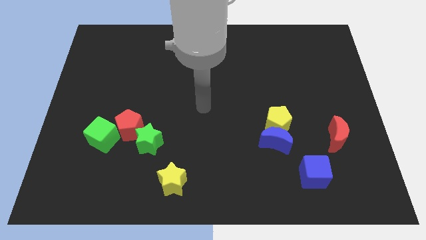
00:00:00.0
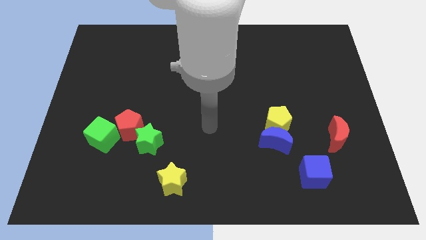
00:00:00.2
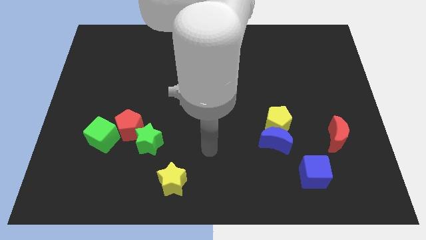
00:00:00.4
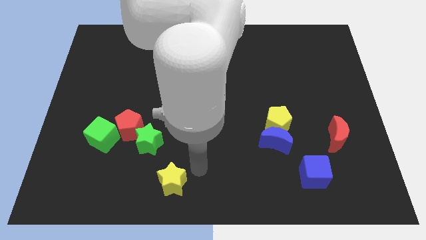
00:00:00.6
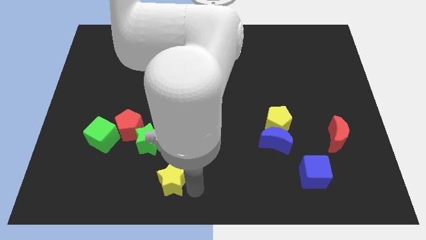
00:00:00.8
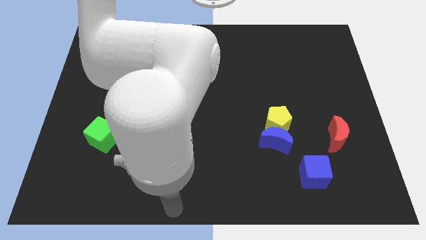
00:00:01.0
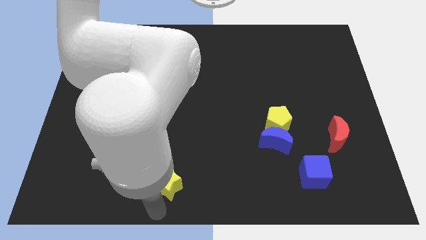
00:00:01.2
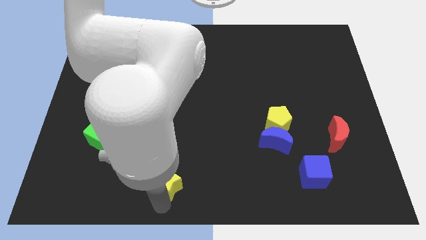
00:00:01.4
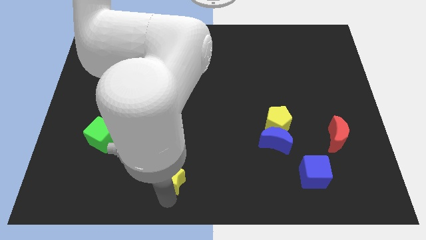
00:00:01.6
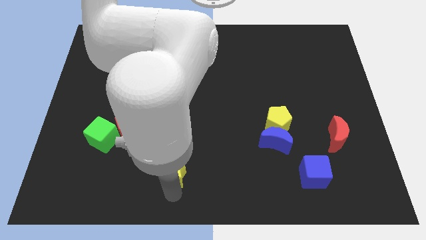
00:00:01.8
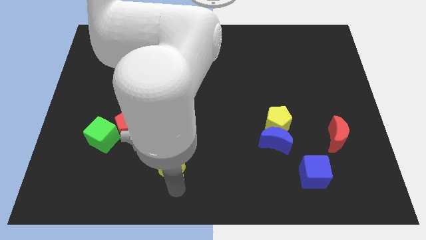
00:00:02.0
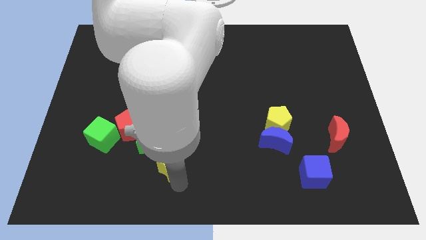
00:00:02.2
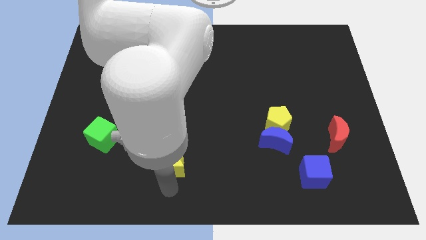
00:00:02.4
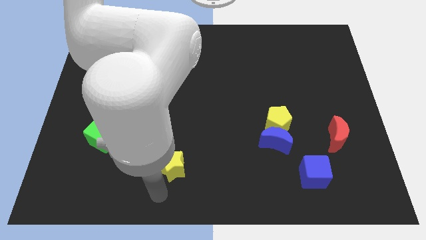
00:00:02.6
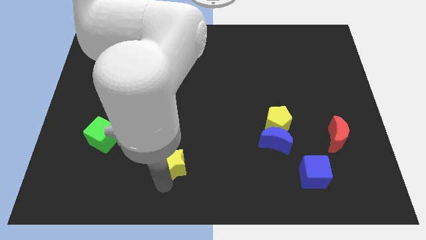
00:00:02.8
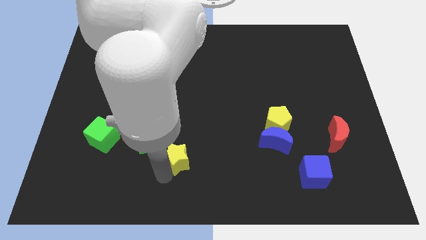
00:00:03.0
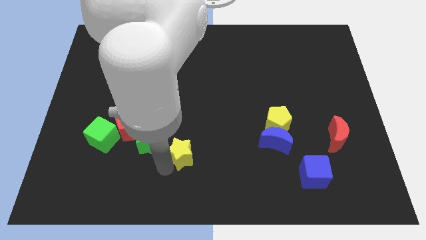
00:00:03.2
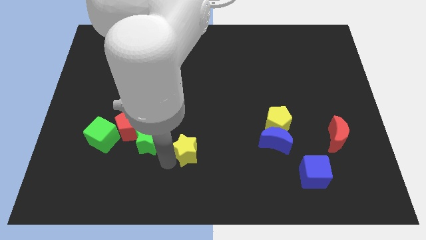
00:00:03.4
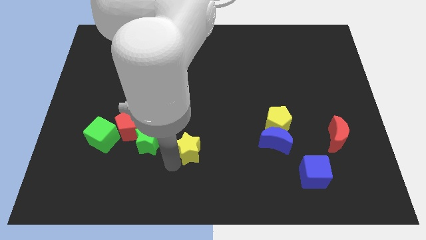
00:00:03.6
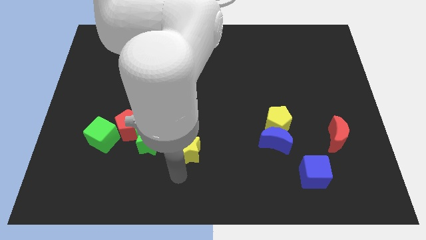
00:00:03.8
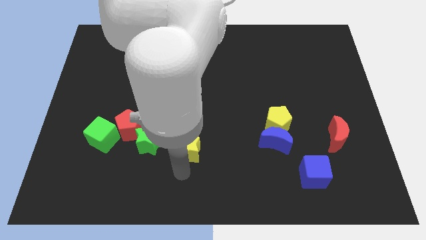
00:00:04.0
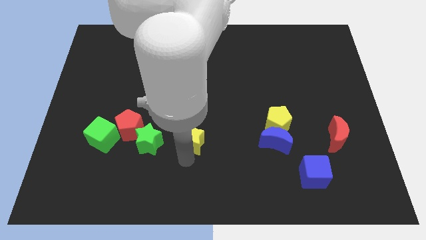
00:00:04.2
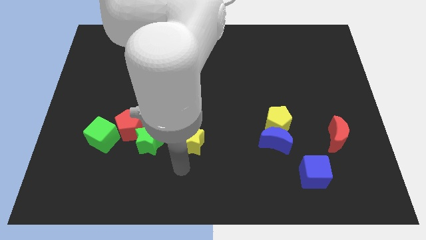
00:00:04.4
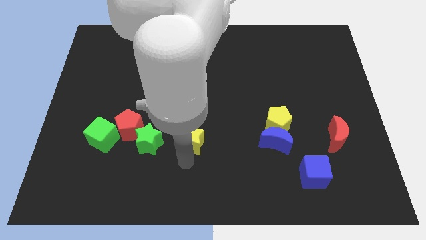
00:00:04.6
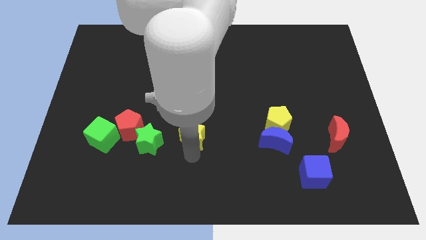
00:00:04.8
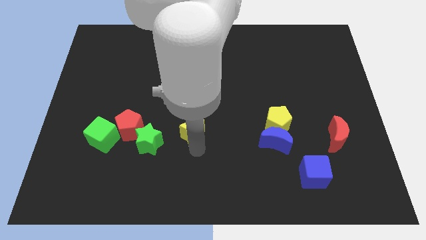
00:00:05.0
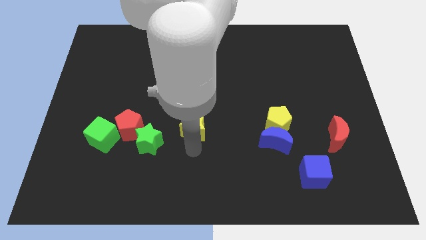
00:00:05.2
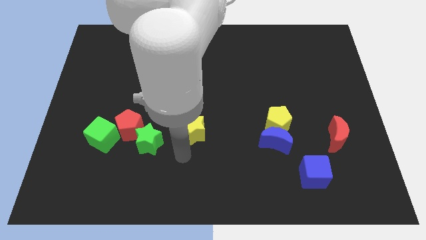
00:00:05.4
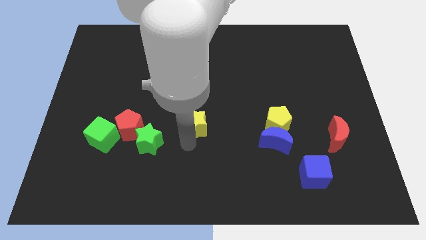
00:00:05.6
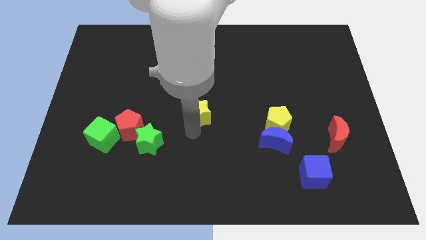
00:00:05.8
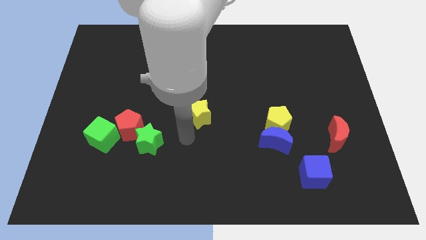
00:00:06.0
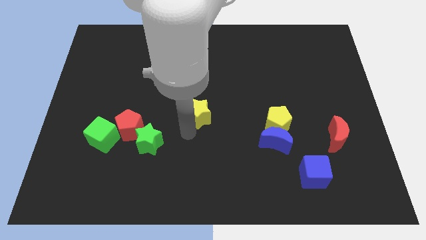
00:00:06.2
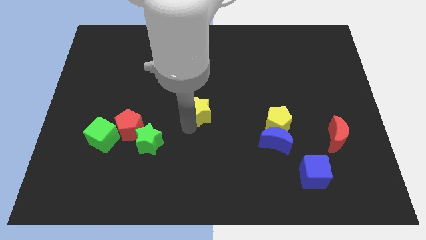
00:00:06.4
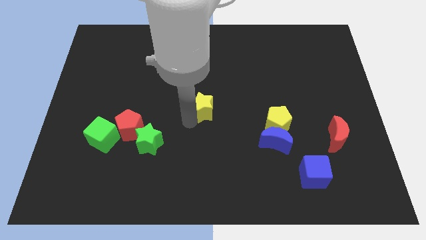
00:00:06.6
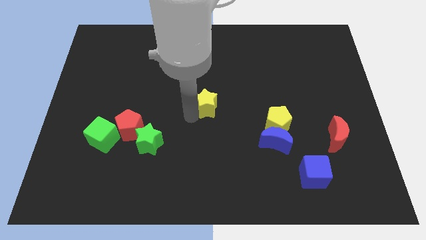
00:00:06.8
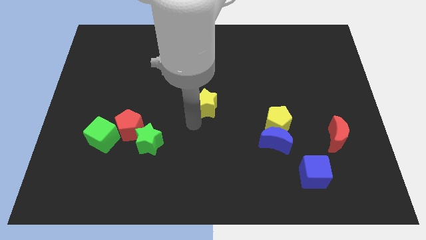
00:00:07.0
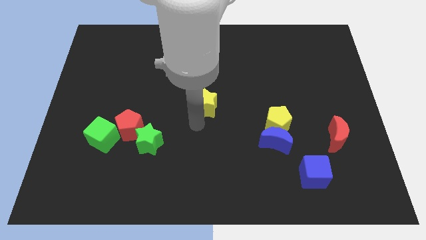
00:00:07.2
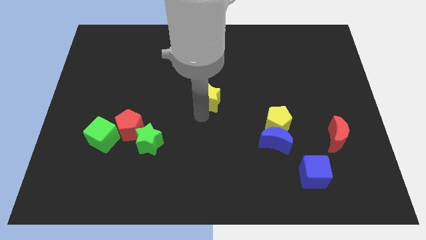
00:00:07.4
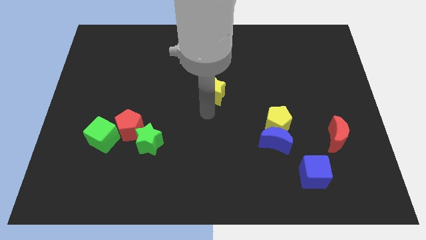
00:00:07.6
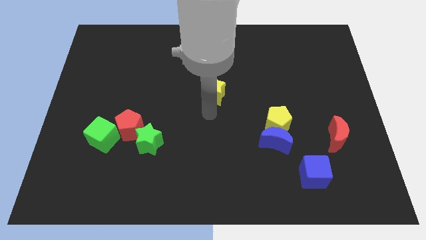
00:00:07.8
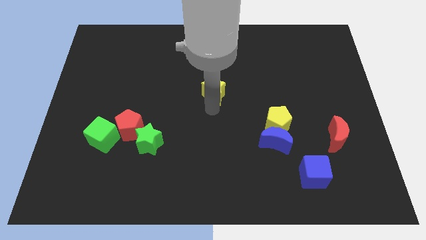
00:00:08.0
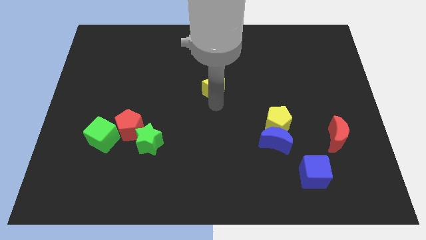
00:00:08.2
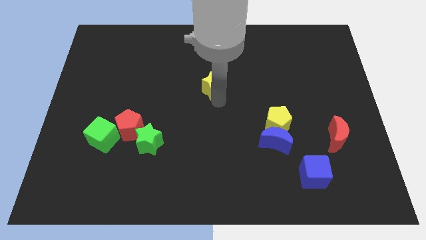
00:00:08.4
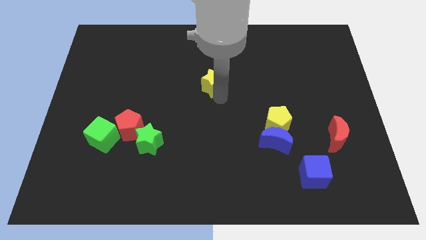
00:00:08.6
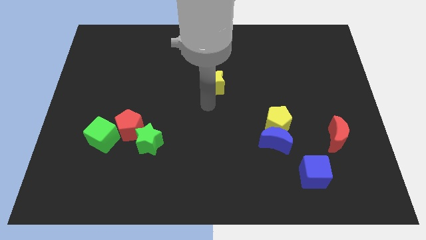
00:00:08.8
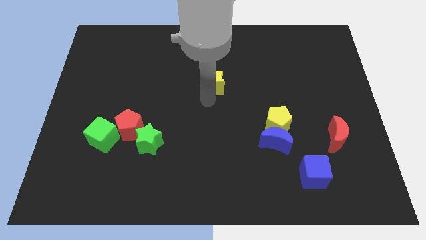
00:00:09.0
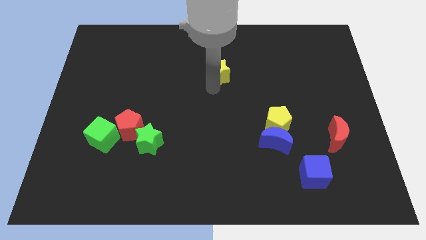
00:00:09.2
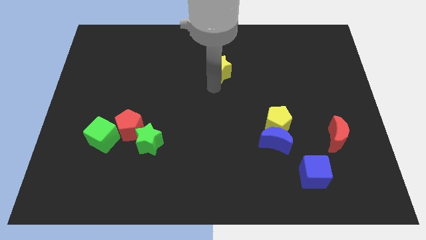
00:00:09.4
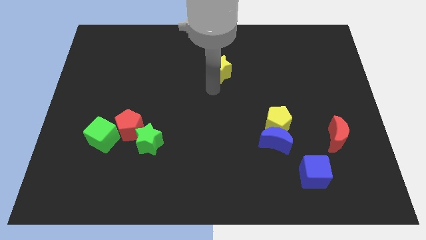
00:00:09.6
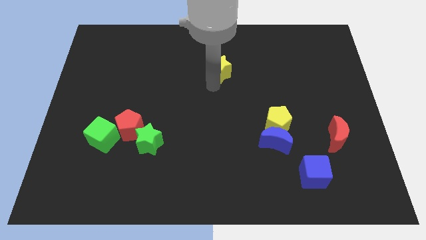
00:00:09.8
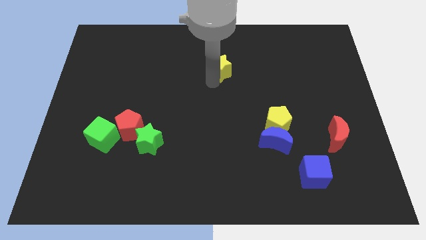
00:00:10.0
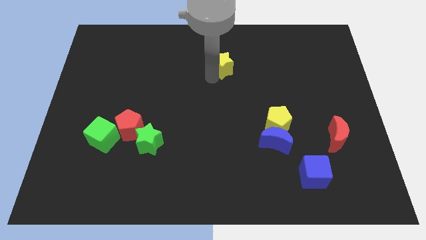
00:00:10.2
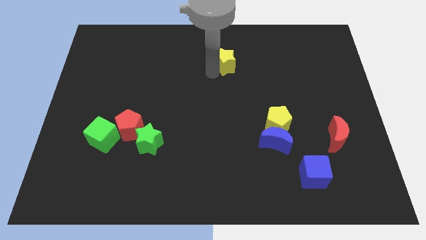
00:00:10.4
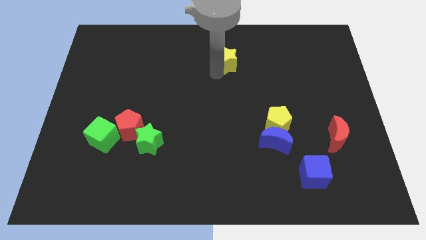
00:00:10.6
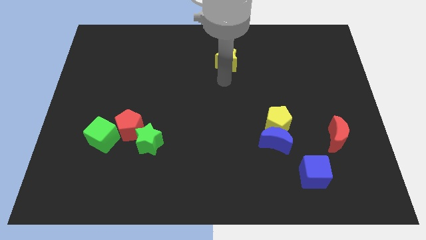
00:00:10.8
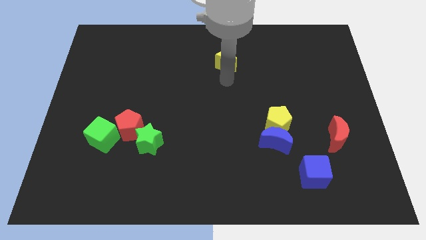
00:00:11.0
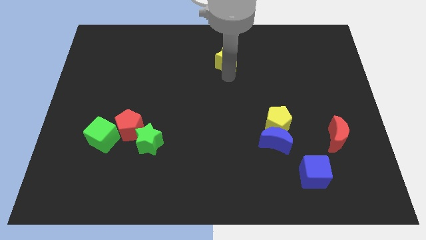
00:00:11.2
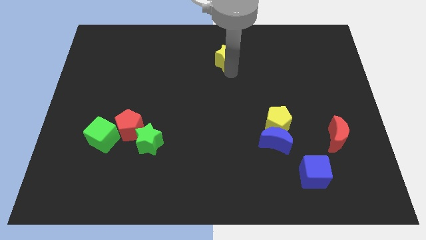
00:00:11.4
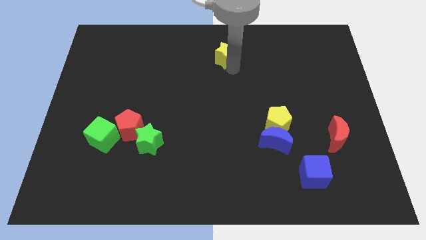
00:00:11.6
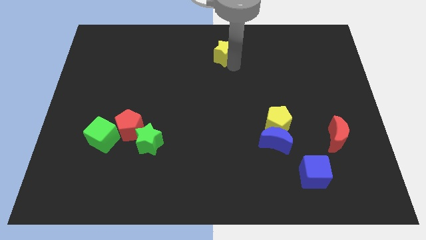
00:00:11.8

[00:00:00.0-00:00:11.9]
move the yellow star to the top

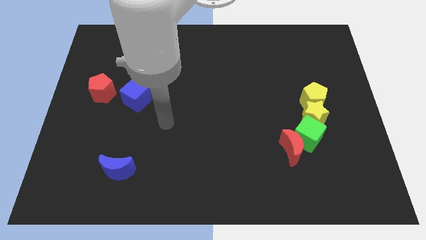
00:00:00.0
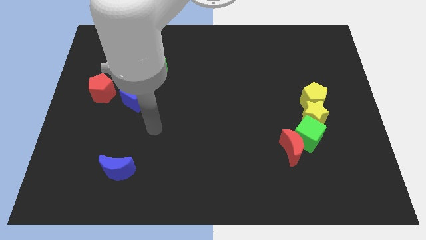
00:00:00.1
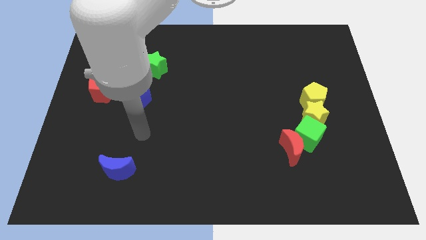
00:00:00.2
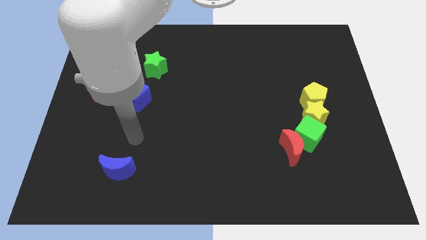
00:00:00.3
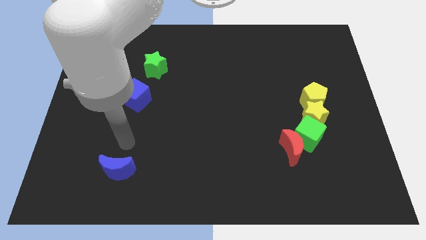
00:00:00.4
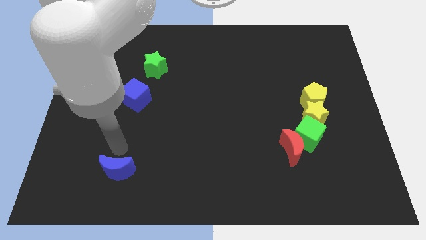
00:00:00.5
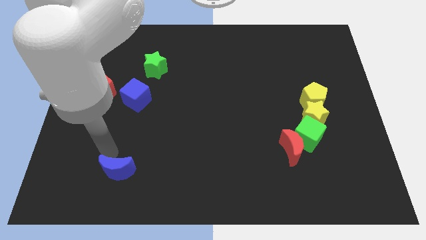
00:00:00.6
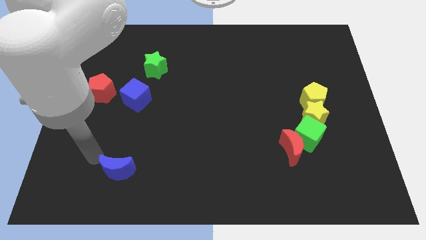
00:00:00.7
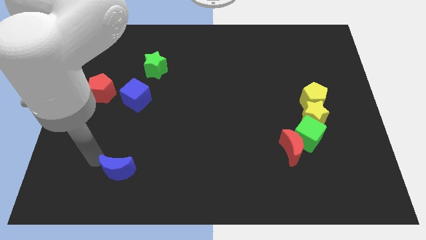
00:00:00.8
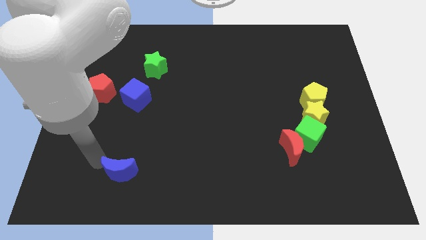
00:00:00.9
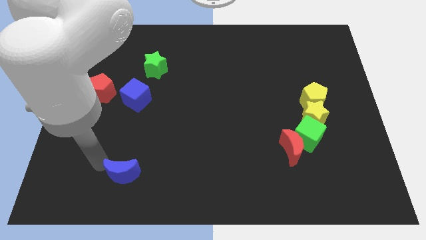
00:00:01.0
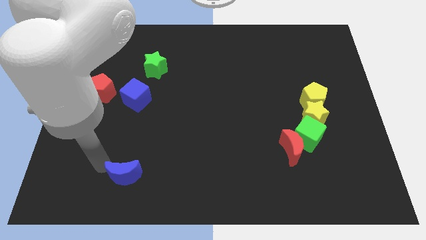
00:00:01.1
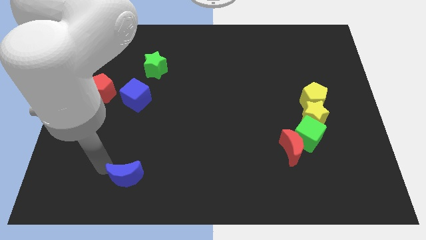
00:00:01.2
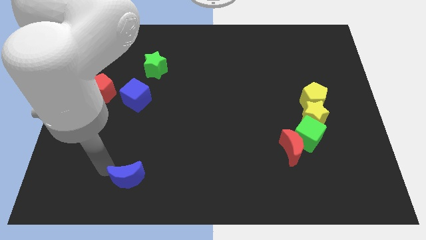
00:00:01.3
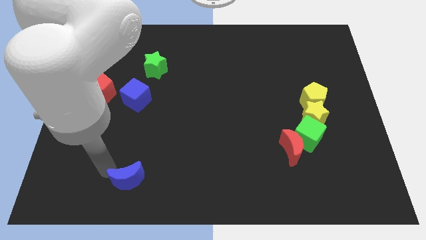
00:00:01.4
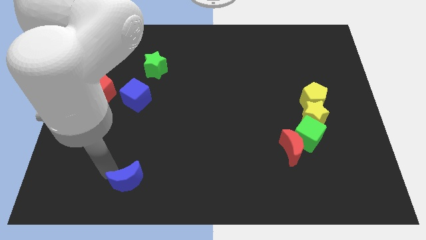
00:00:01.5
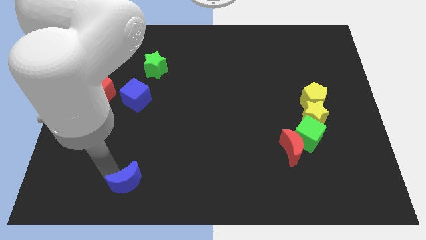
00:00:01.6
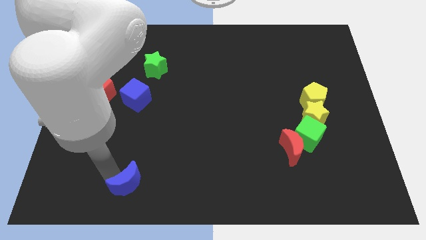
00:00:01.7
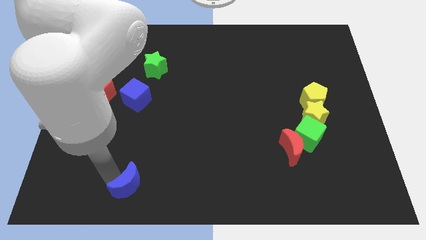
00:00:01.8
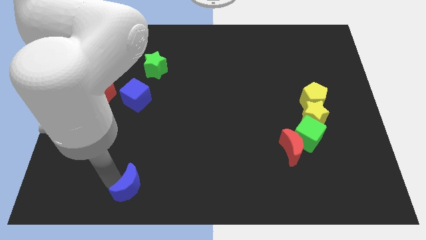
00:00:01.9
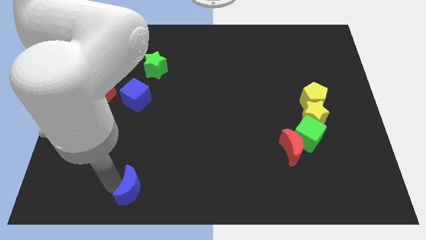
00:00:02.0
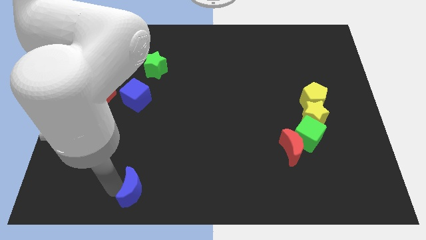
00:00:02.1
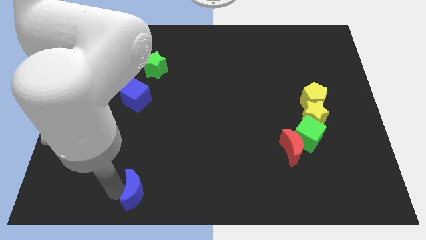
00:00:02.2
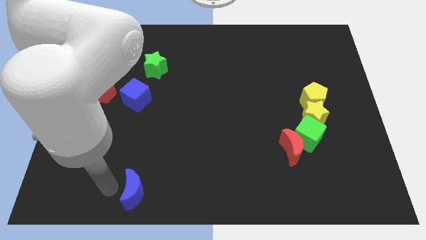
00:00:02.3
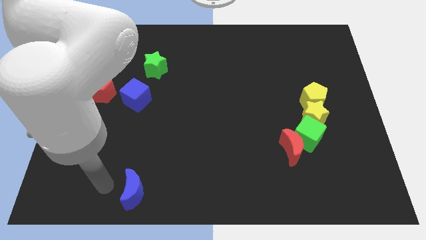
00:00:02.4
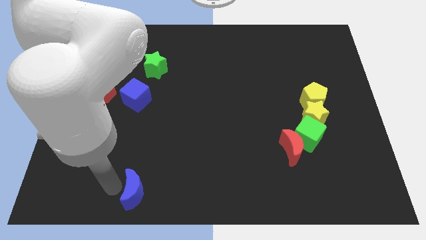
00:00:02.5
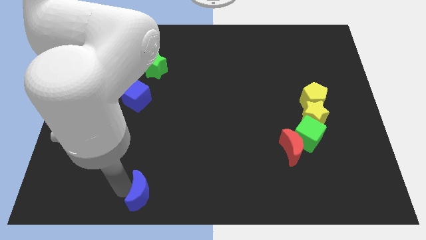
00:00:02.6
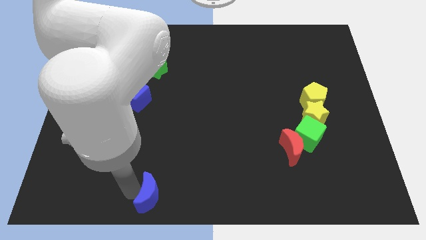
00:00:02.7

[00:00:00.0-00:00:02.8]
move the blue moon to the bottom side
